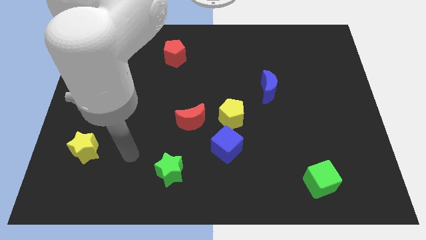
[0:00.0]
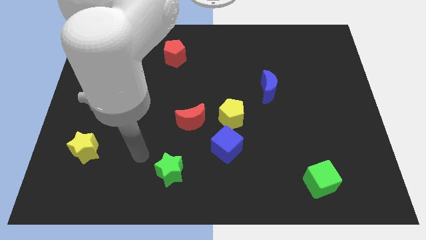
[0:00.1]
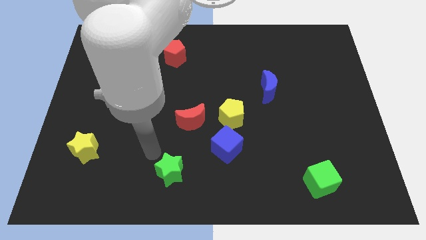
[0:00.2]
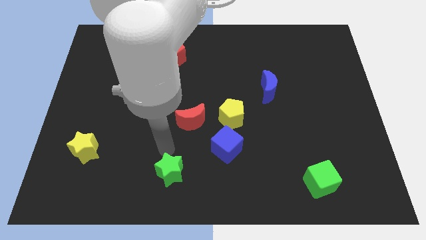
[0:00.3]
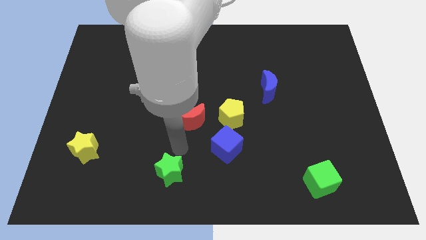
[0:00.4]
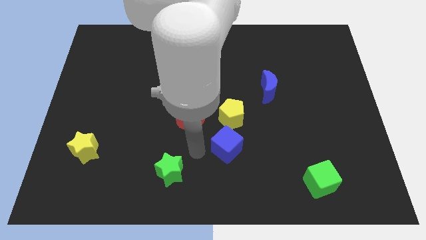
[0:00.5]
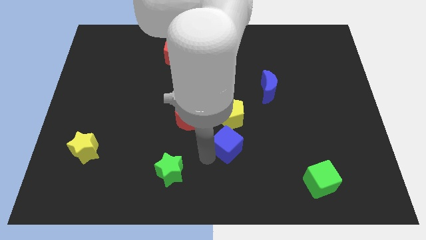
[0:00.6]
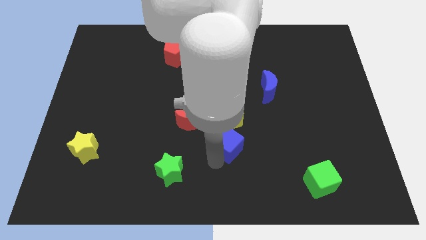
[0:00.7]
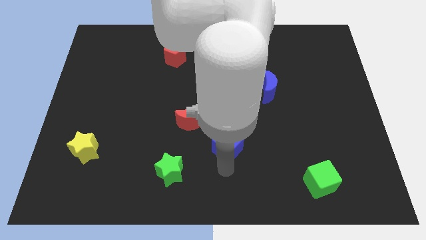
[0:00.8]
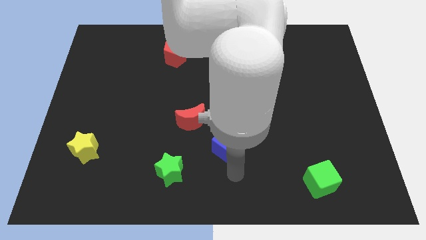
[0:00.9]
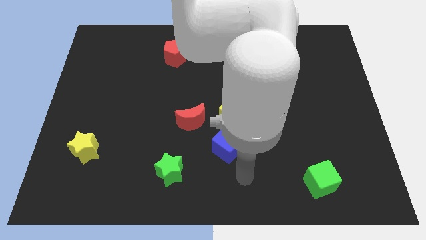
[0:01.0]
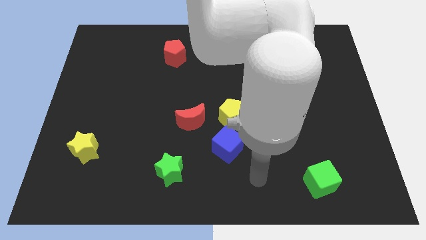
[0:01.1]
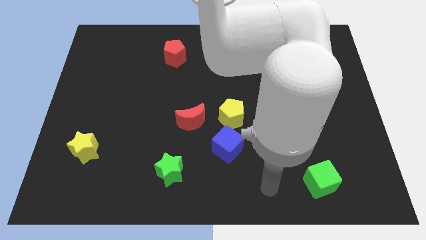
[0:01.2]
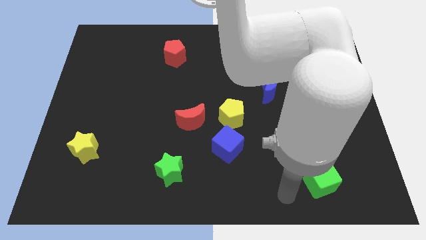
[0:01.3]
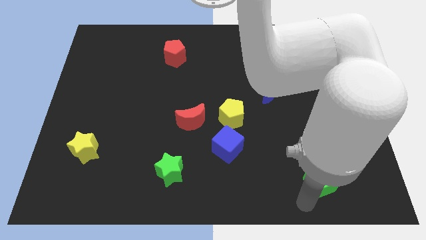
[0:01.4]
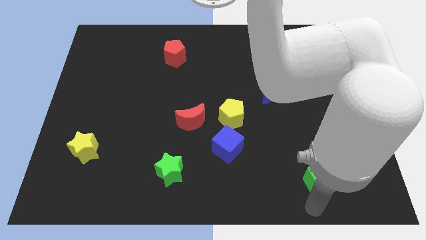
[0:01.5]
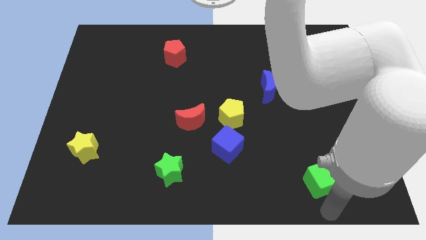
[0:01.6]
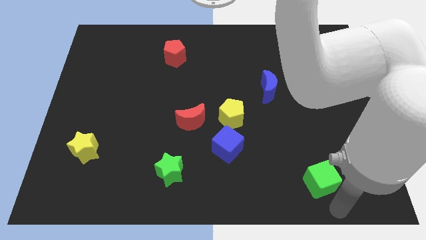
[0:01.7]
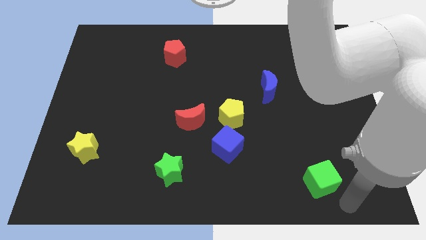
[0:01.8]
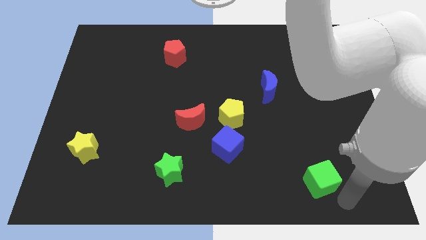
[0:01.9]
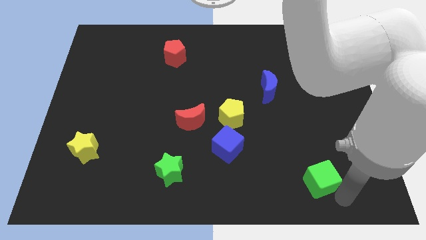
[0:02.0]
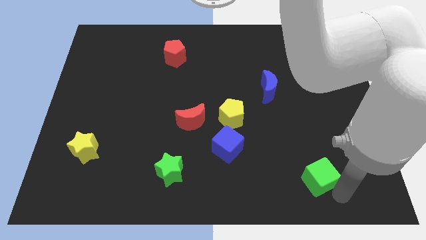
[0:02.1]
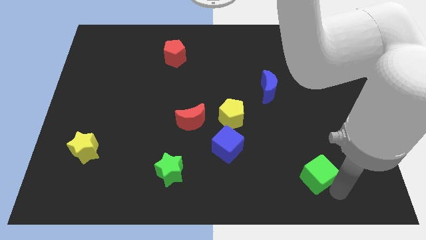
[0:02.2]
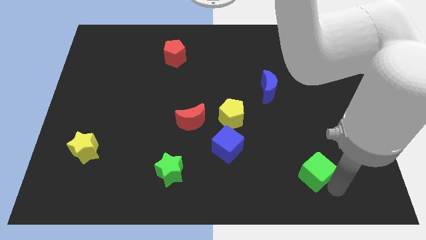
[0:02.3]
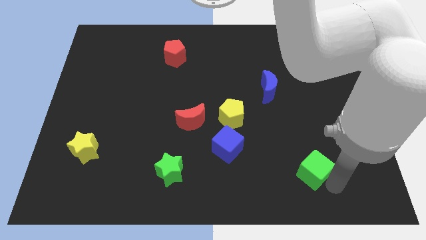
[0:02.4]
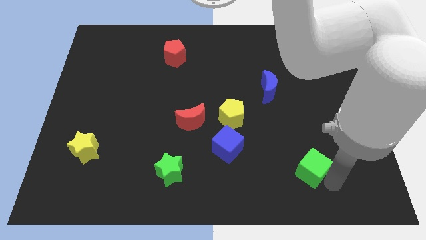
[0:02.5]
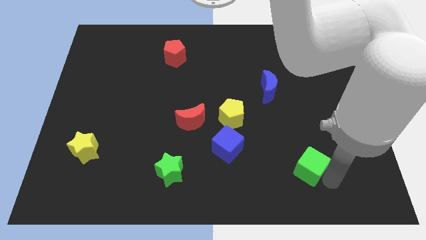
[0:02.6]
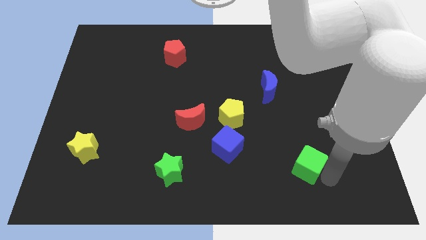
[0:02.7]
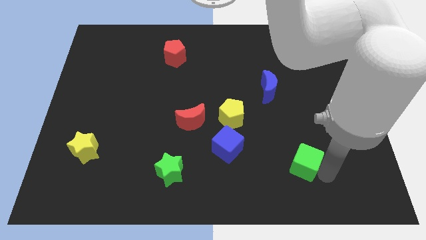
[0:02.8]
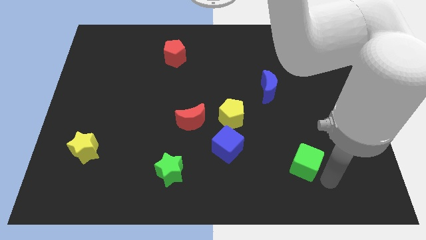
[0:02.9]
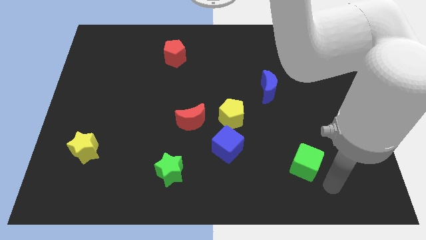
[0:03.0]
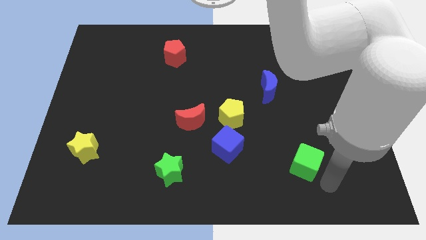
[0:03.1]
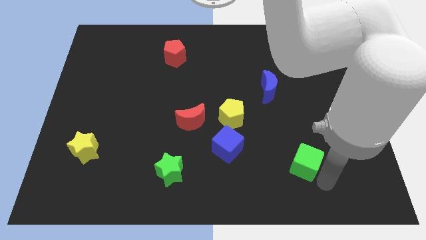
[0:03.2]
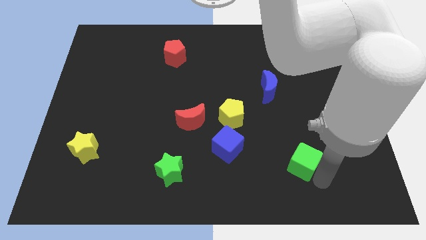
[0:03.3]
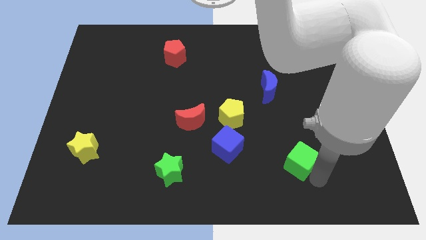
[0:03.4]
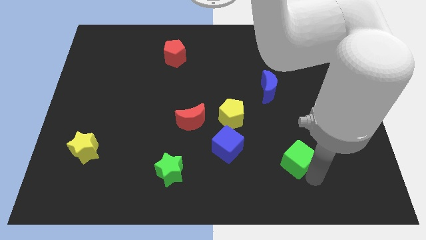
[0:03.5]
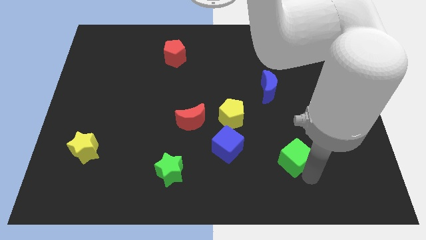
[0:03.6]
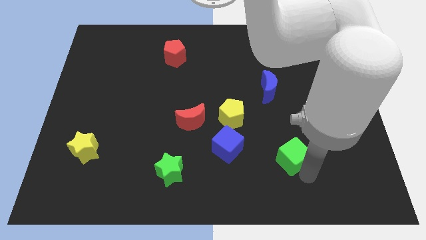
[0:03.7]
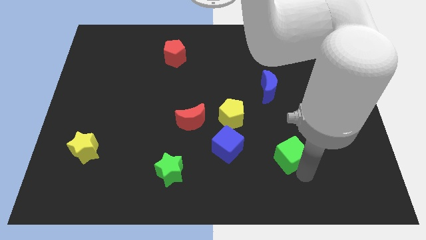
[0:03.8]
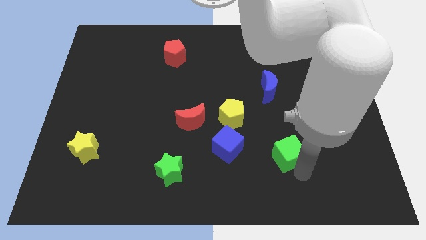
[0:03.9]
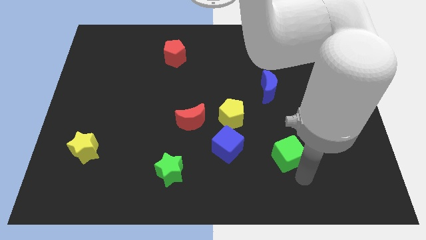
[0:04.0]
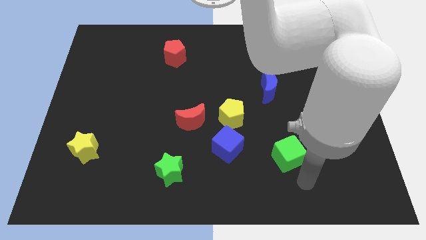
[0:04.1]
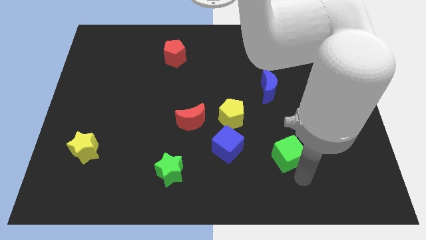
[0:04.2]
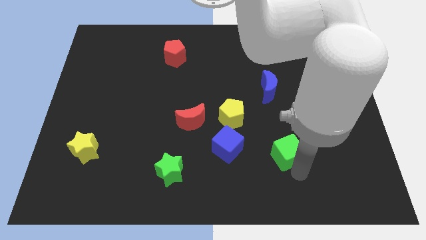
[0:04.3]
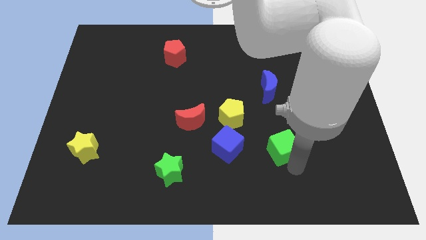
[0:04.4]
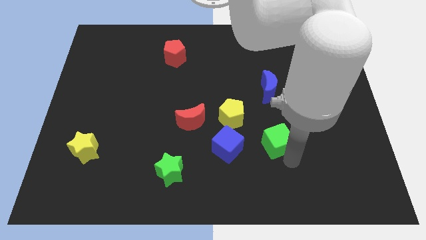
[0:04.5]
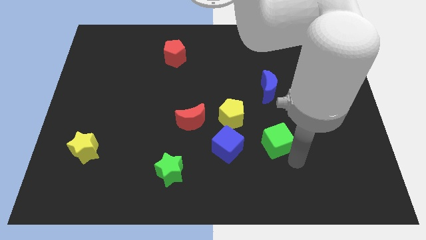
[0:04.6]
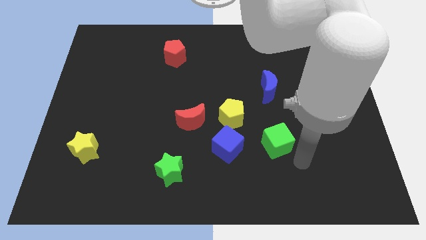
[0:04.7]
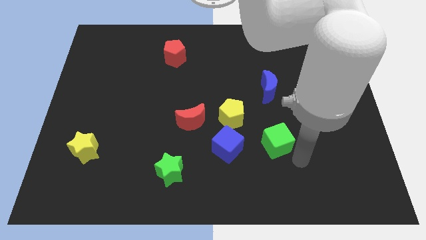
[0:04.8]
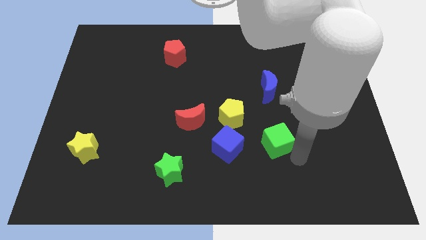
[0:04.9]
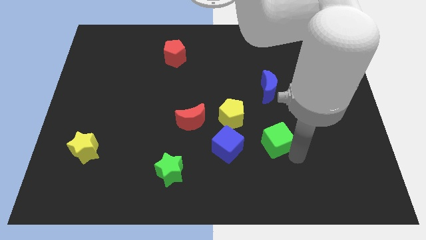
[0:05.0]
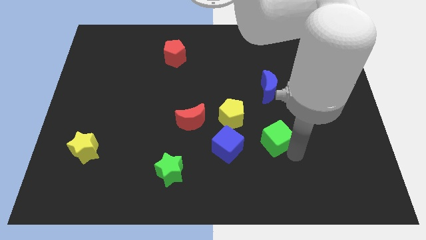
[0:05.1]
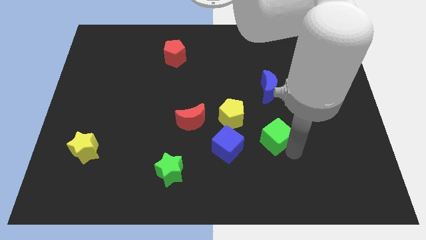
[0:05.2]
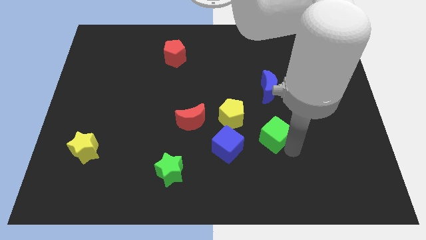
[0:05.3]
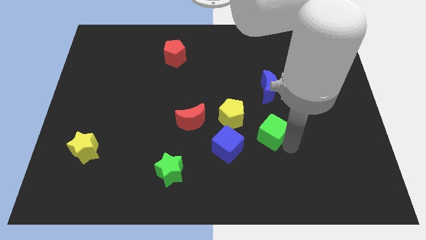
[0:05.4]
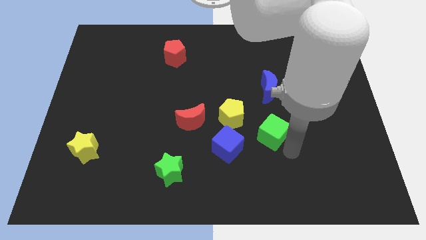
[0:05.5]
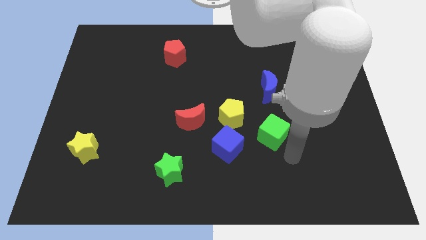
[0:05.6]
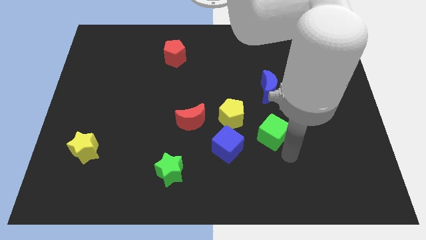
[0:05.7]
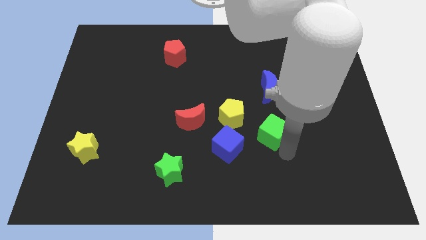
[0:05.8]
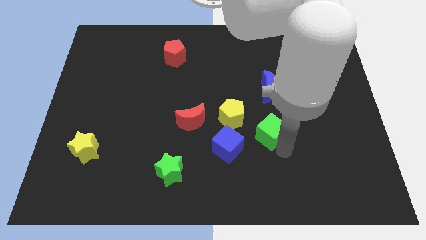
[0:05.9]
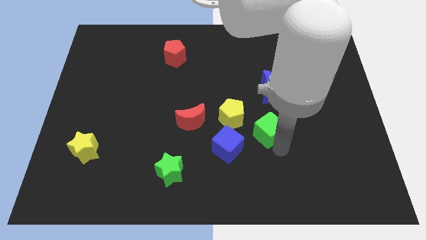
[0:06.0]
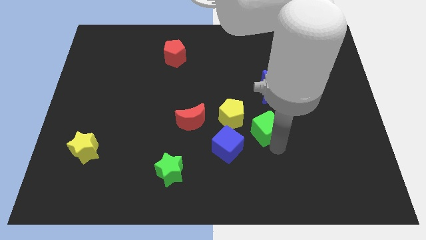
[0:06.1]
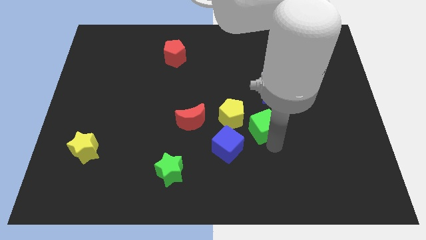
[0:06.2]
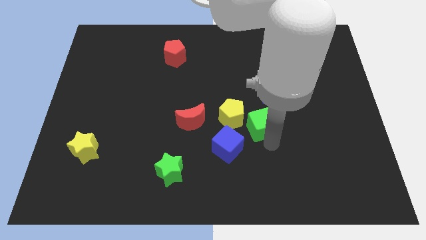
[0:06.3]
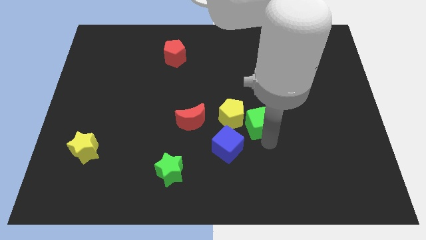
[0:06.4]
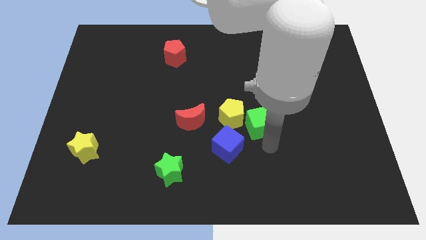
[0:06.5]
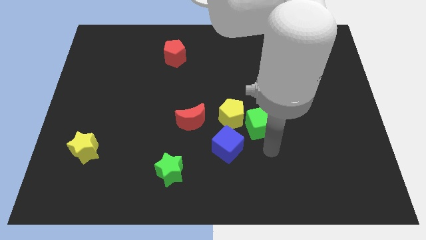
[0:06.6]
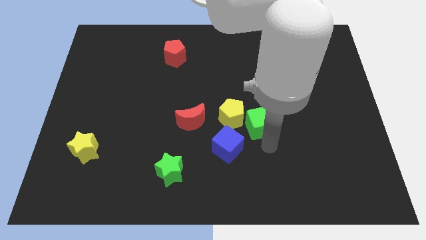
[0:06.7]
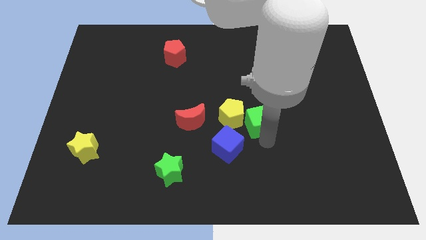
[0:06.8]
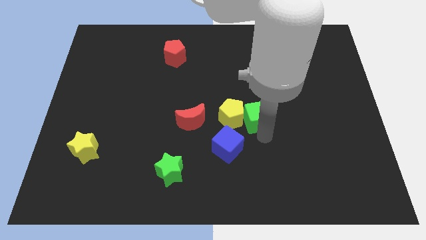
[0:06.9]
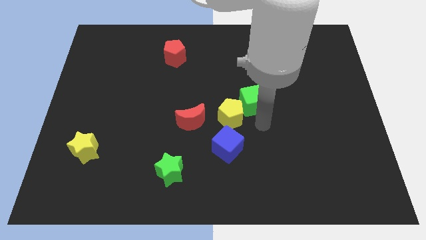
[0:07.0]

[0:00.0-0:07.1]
slide the green cube upwards and left diagonally

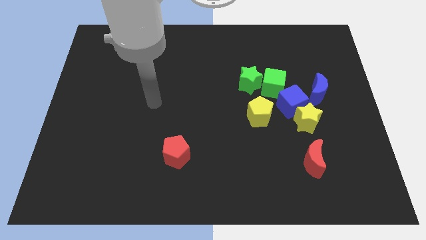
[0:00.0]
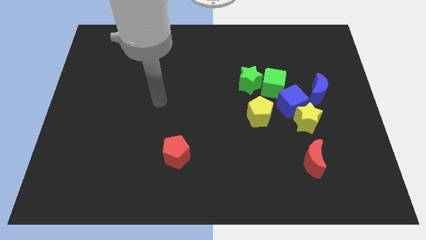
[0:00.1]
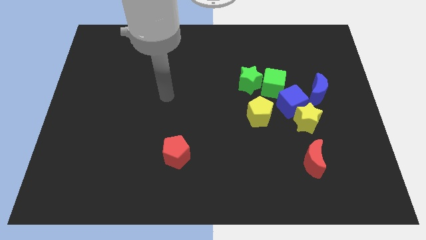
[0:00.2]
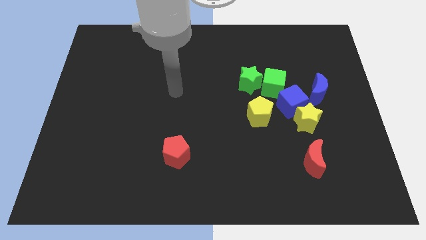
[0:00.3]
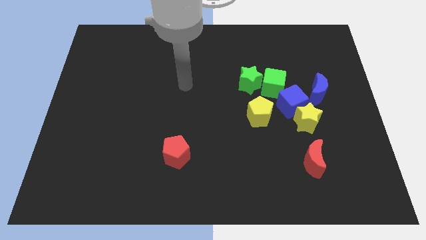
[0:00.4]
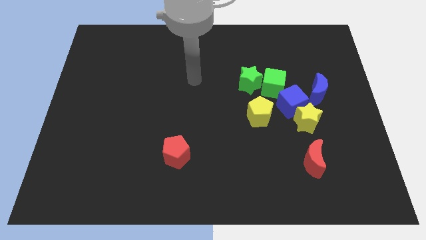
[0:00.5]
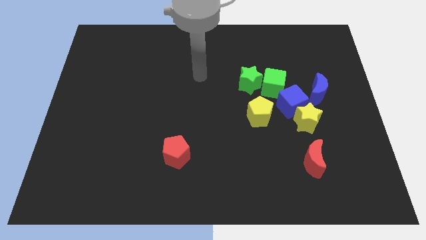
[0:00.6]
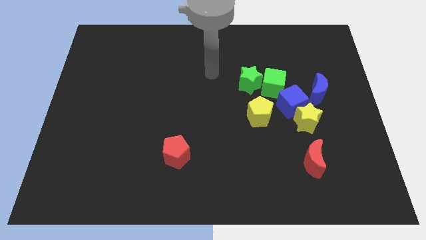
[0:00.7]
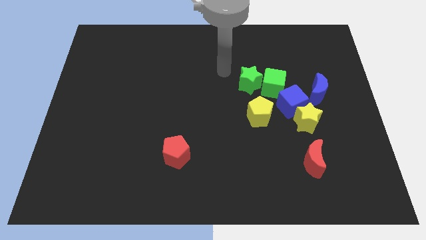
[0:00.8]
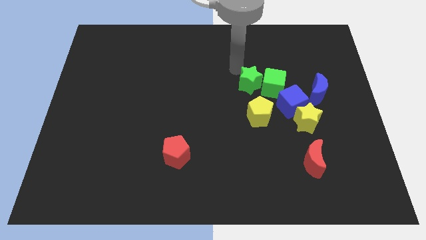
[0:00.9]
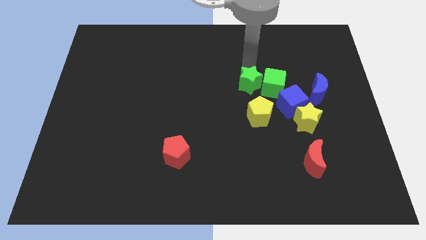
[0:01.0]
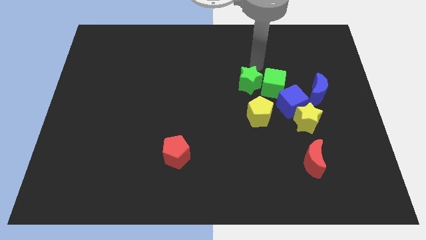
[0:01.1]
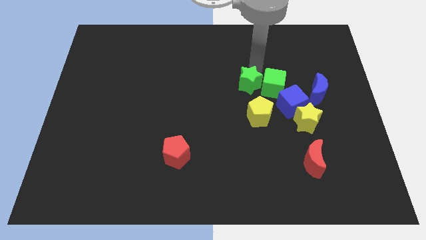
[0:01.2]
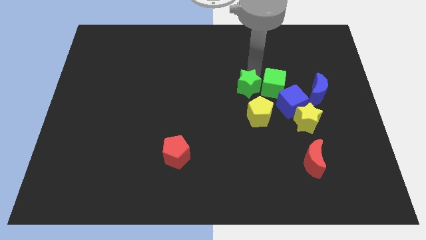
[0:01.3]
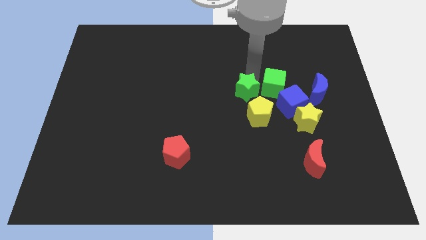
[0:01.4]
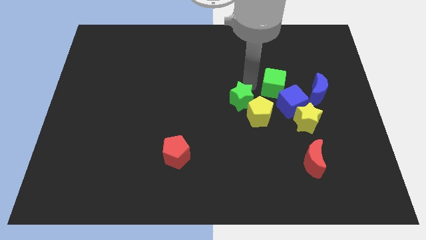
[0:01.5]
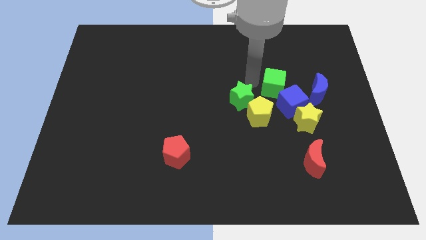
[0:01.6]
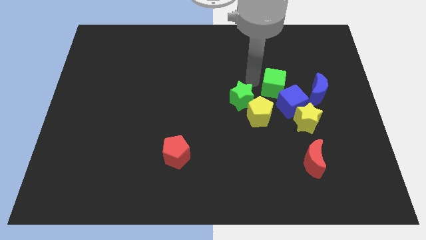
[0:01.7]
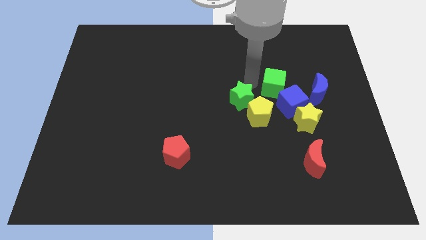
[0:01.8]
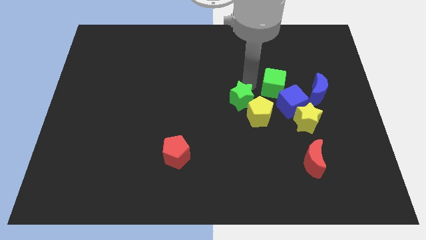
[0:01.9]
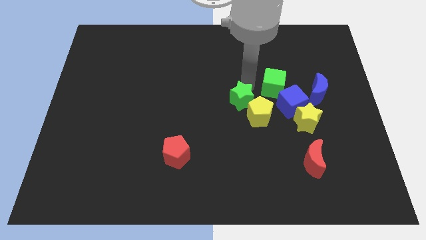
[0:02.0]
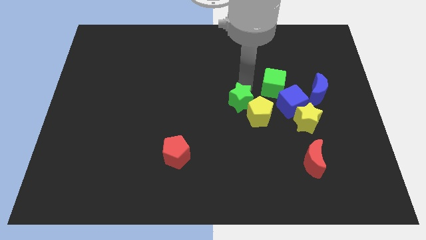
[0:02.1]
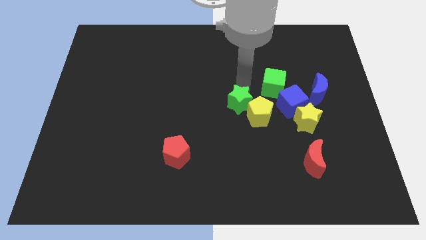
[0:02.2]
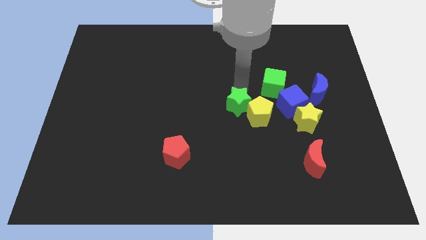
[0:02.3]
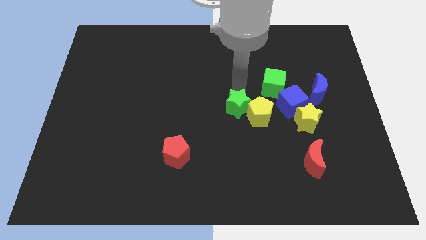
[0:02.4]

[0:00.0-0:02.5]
slightly push the green star down
